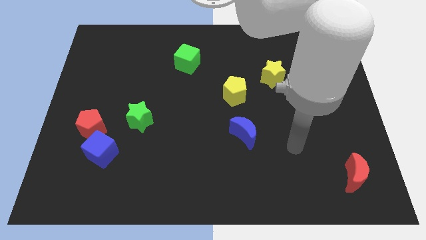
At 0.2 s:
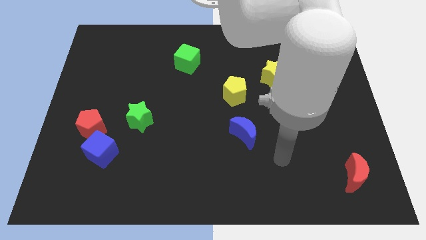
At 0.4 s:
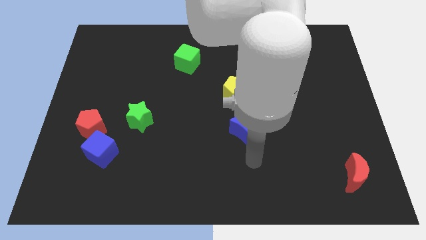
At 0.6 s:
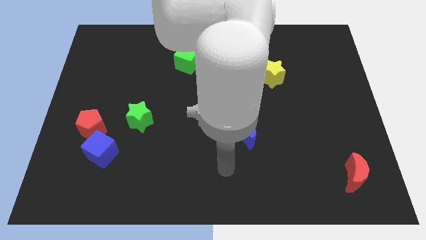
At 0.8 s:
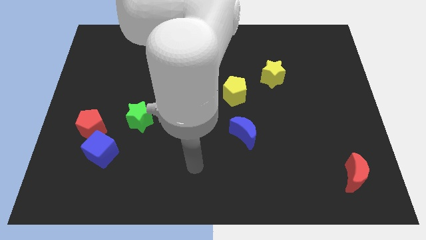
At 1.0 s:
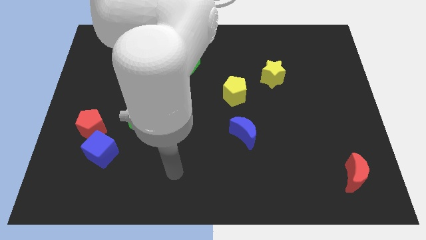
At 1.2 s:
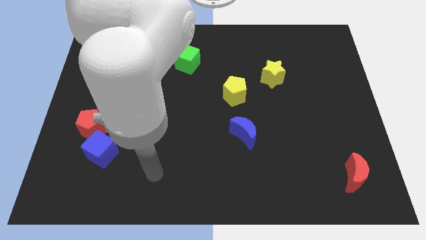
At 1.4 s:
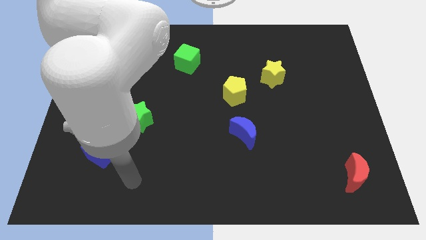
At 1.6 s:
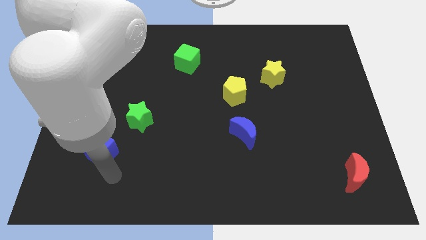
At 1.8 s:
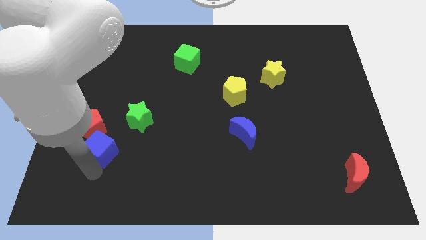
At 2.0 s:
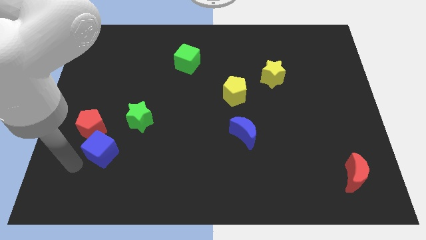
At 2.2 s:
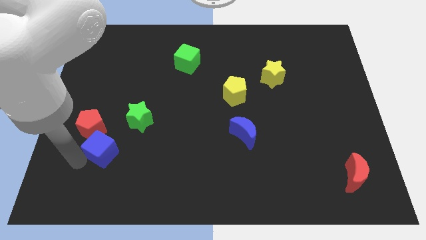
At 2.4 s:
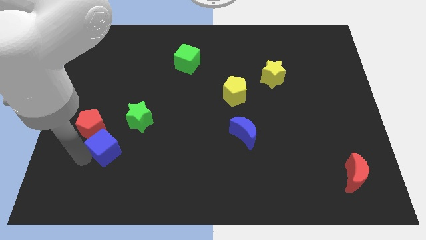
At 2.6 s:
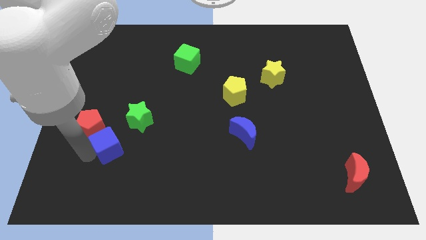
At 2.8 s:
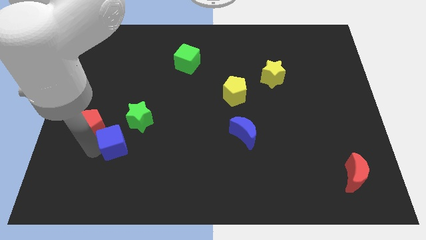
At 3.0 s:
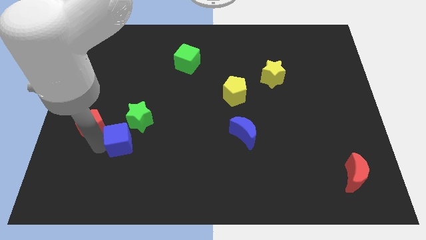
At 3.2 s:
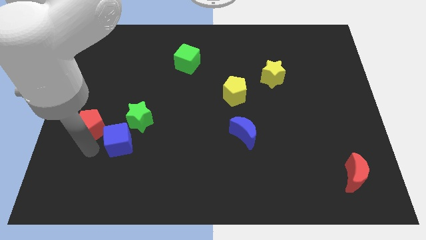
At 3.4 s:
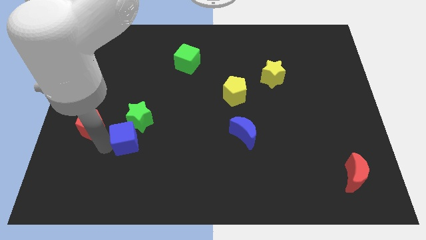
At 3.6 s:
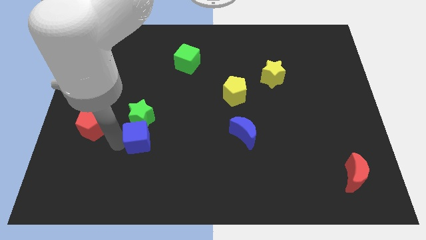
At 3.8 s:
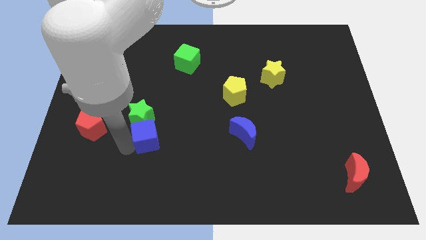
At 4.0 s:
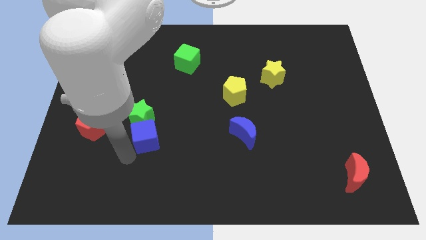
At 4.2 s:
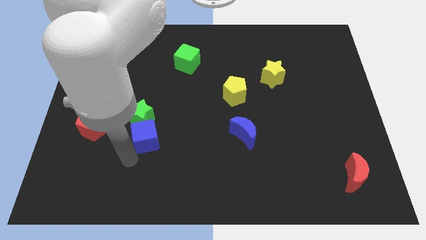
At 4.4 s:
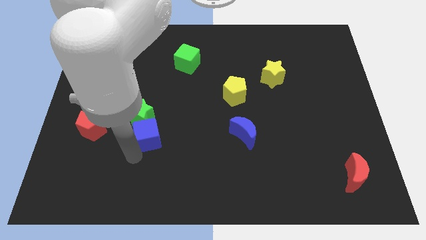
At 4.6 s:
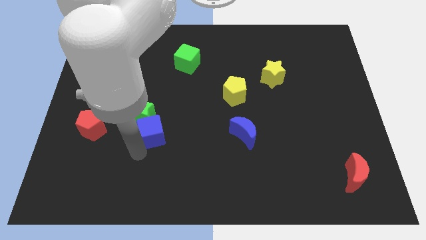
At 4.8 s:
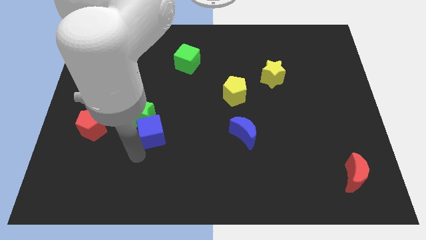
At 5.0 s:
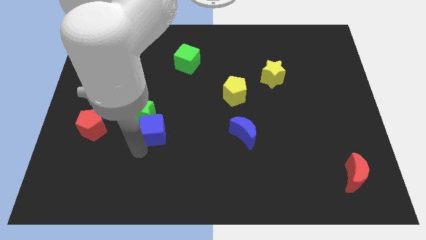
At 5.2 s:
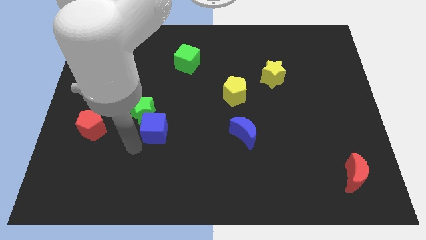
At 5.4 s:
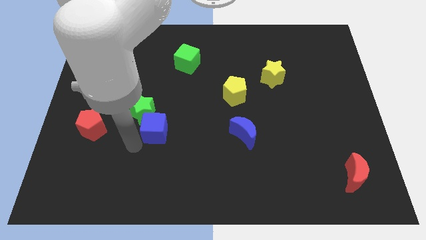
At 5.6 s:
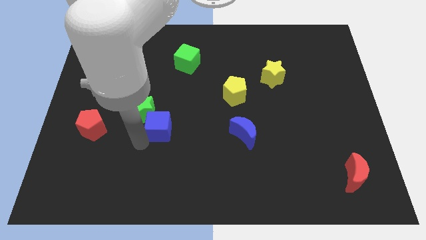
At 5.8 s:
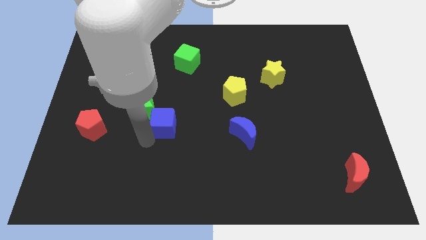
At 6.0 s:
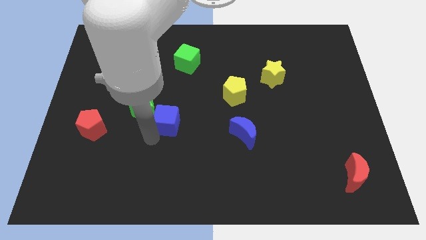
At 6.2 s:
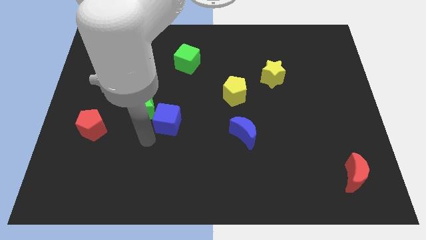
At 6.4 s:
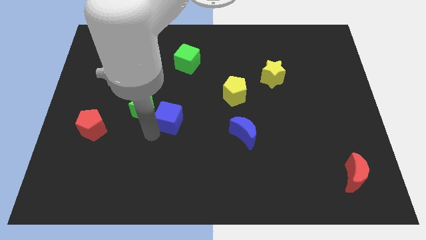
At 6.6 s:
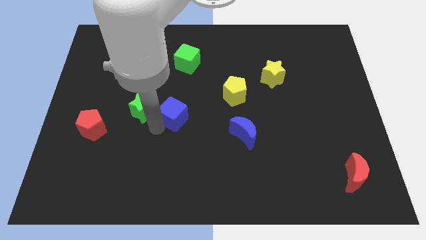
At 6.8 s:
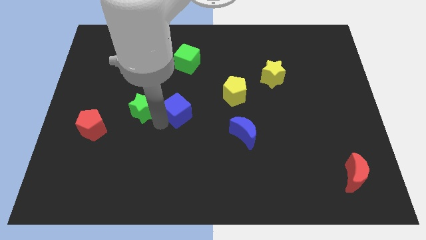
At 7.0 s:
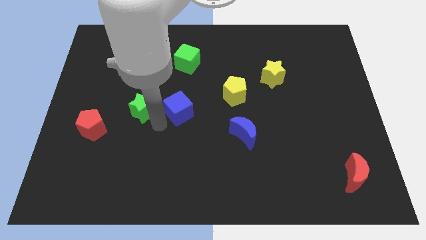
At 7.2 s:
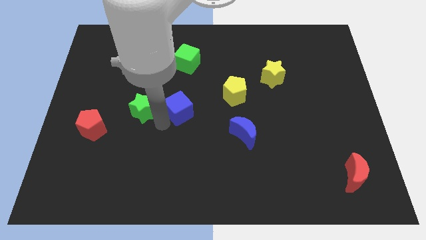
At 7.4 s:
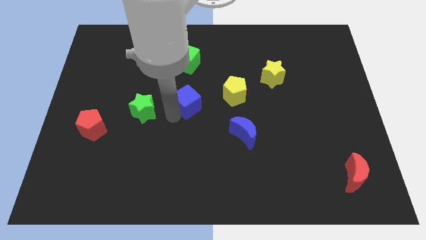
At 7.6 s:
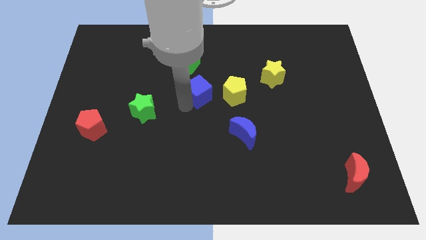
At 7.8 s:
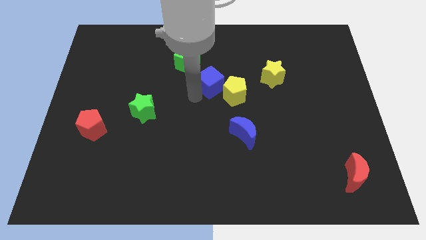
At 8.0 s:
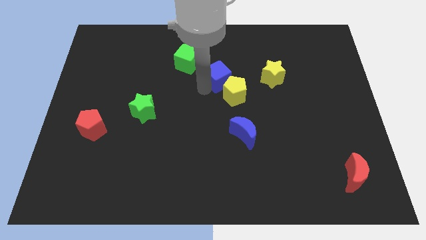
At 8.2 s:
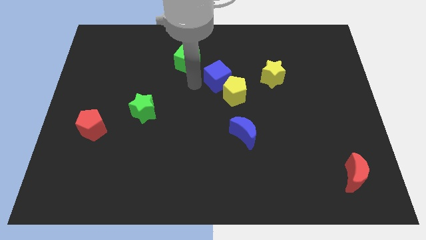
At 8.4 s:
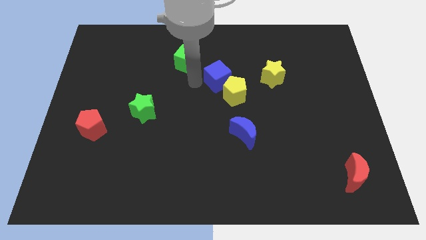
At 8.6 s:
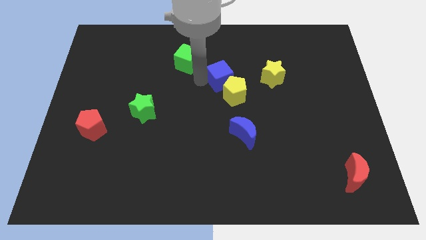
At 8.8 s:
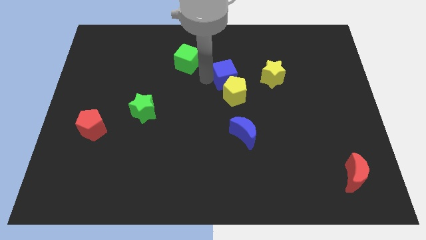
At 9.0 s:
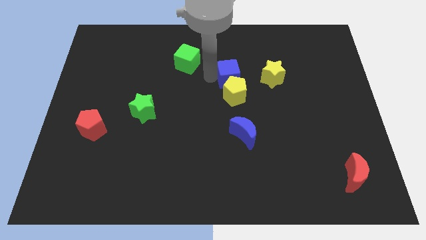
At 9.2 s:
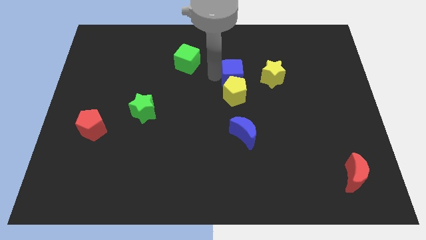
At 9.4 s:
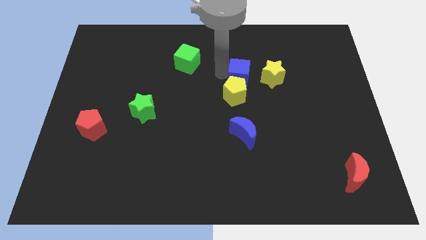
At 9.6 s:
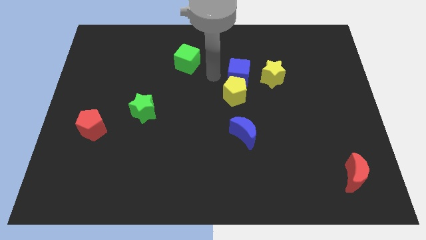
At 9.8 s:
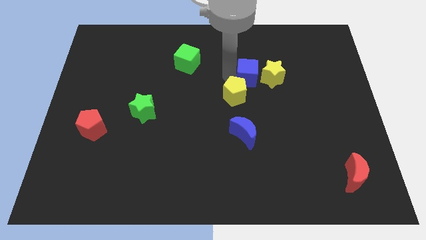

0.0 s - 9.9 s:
slide the blue cube next to the yellow star

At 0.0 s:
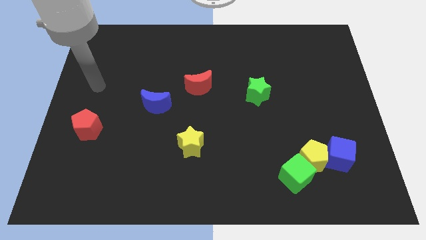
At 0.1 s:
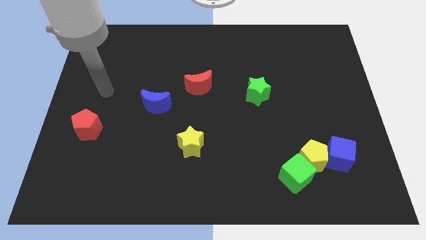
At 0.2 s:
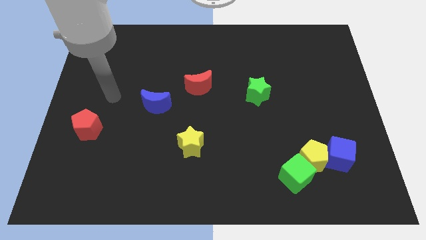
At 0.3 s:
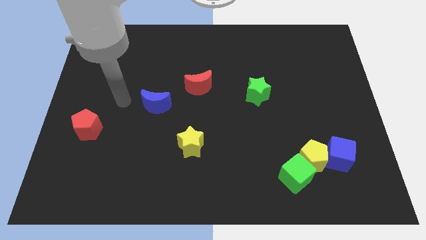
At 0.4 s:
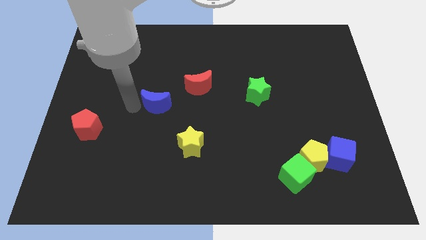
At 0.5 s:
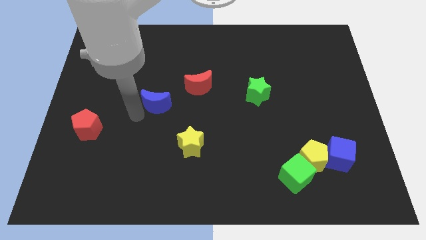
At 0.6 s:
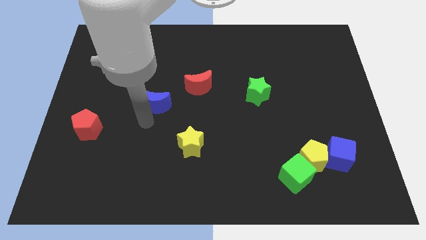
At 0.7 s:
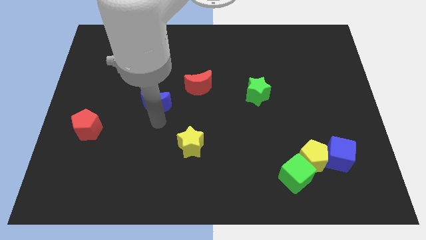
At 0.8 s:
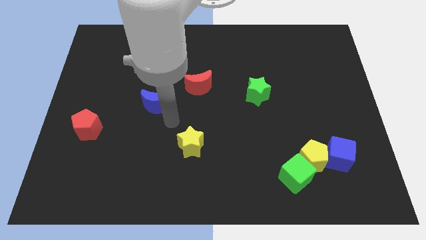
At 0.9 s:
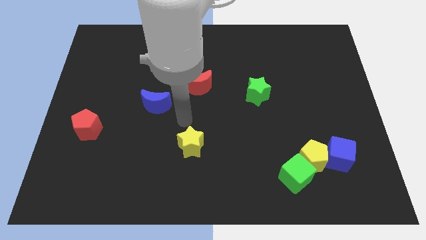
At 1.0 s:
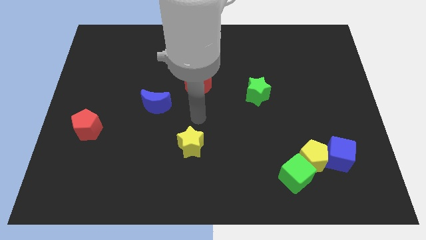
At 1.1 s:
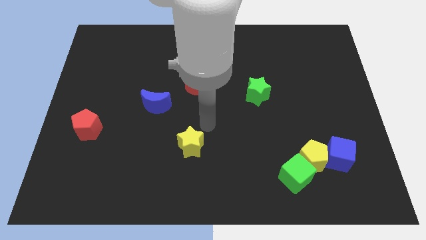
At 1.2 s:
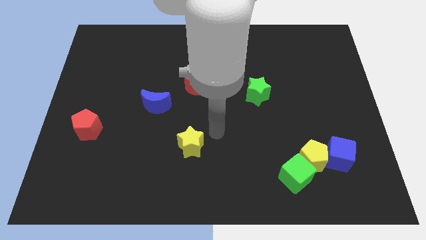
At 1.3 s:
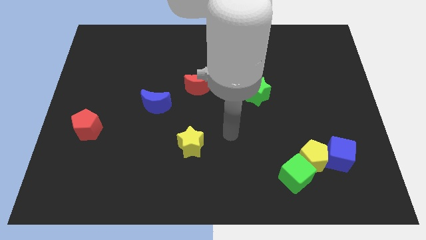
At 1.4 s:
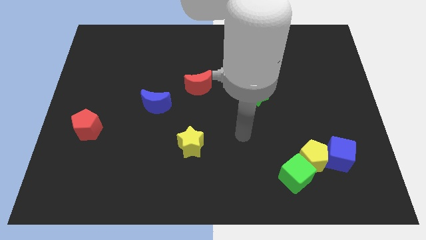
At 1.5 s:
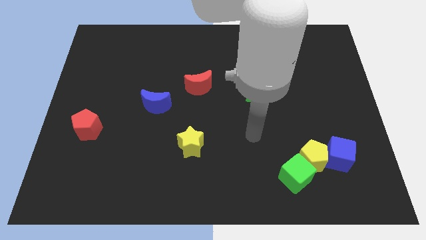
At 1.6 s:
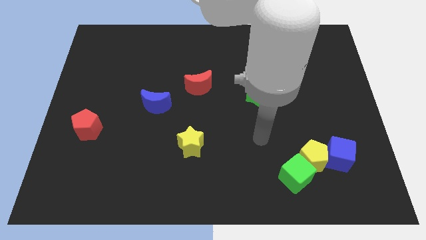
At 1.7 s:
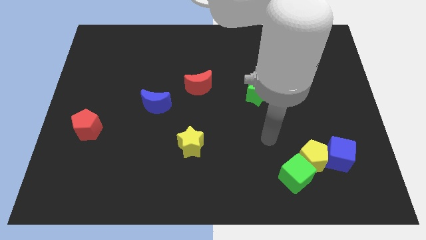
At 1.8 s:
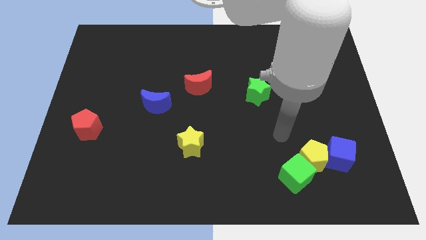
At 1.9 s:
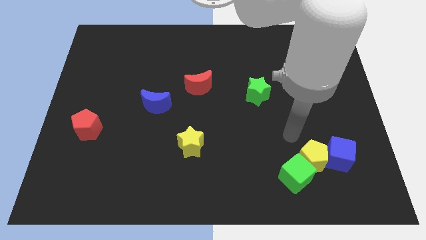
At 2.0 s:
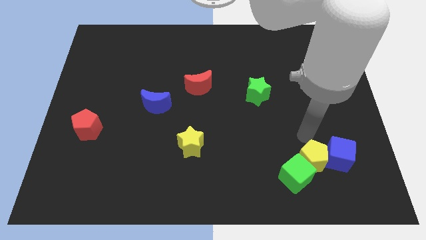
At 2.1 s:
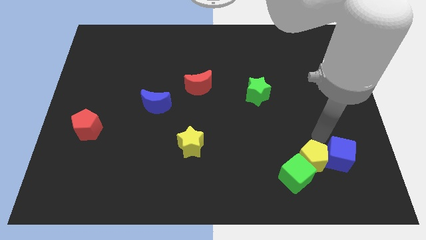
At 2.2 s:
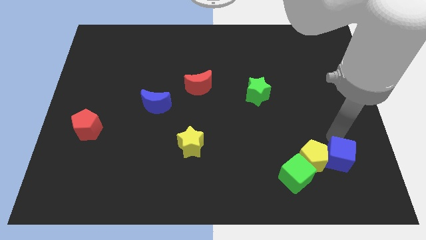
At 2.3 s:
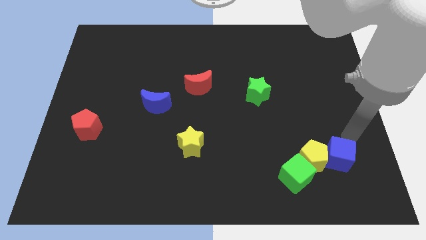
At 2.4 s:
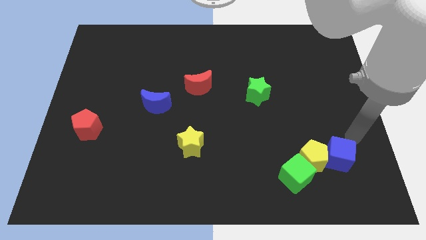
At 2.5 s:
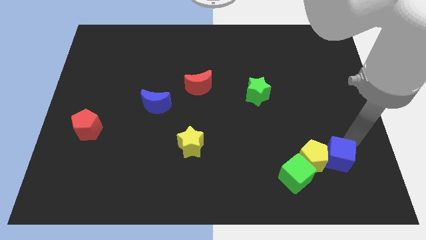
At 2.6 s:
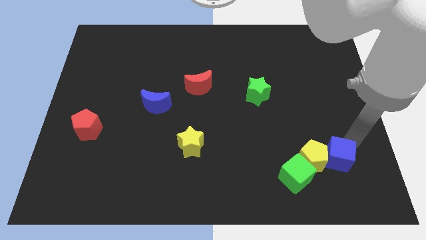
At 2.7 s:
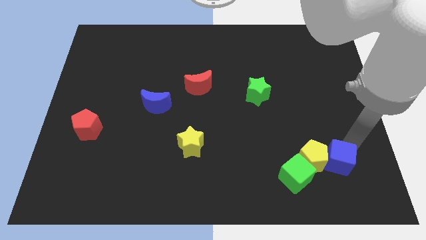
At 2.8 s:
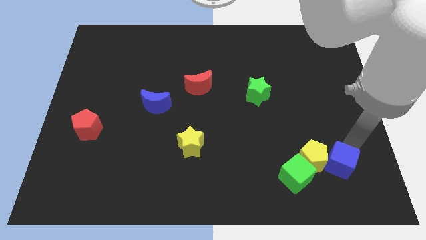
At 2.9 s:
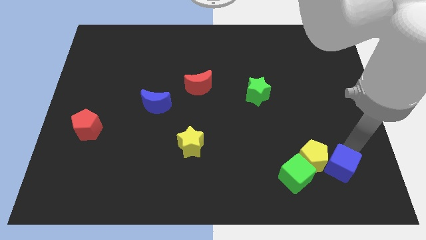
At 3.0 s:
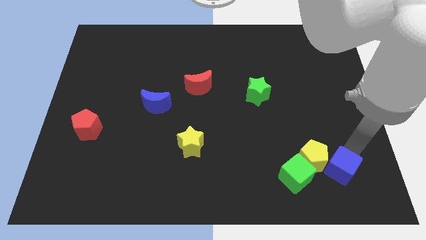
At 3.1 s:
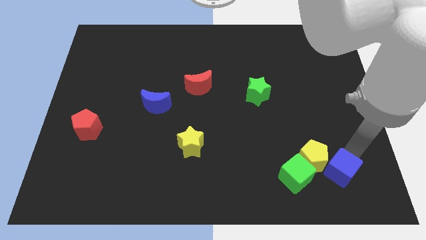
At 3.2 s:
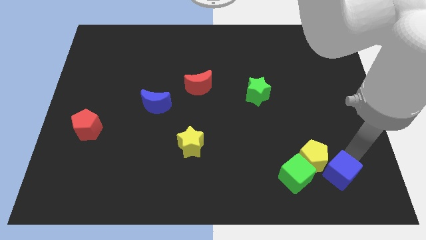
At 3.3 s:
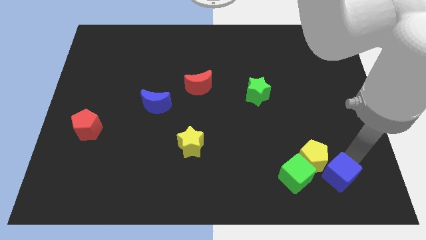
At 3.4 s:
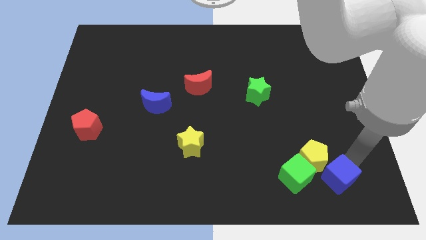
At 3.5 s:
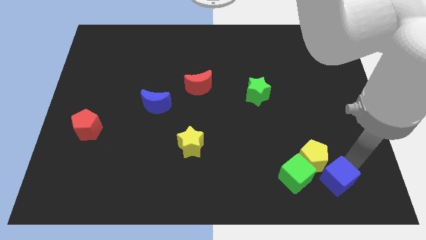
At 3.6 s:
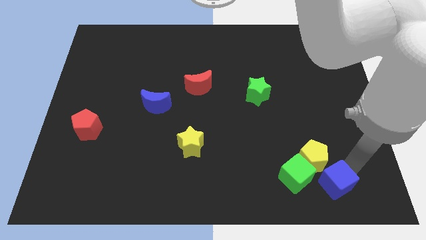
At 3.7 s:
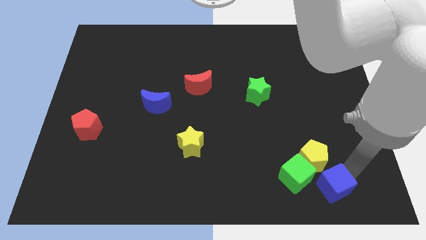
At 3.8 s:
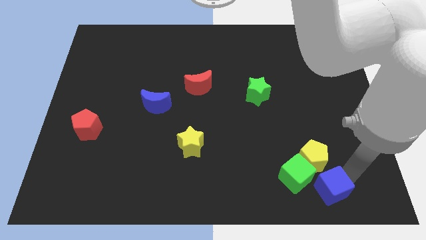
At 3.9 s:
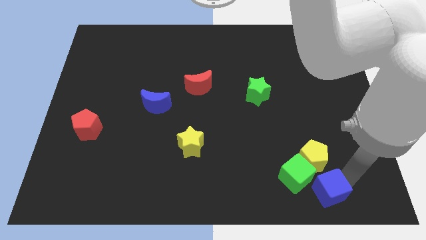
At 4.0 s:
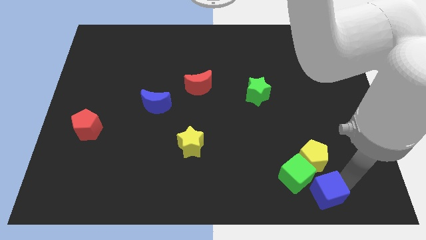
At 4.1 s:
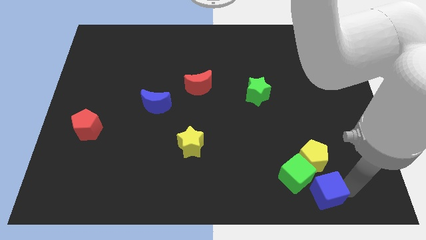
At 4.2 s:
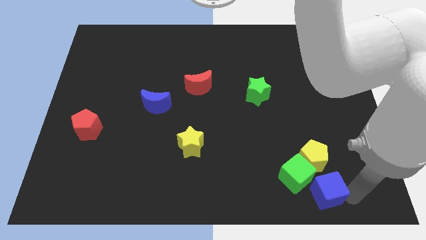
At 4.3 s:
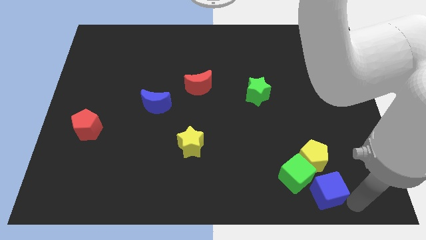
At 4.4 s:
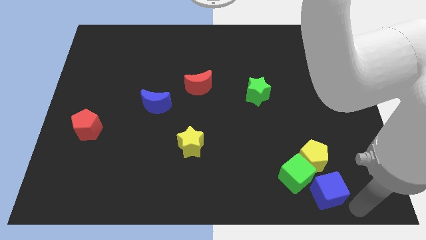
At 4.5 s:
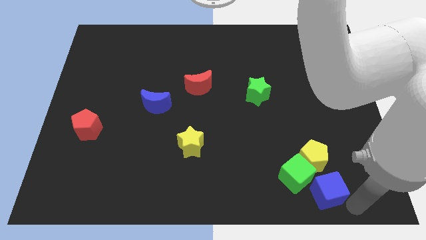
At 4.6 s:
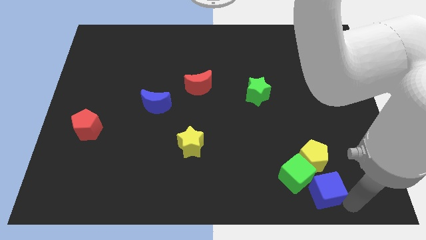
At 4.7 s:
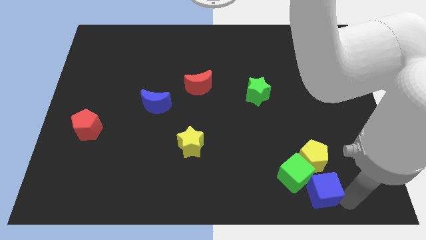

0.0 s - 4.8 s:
put the blue cube towards the green cube
